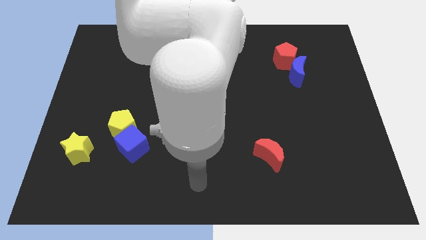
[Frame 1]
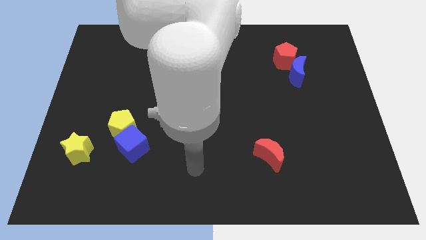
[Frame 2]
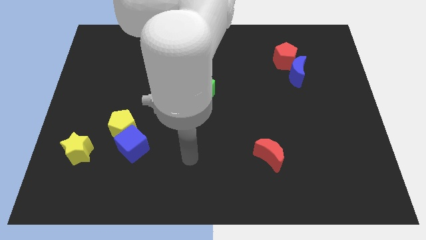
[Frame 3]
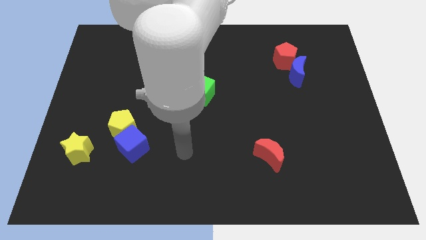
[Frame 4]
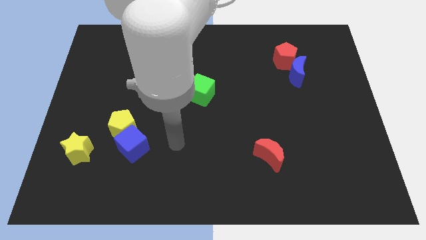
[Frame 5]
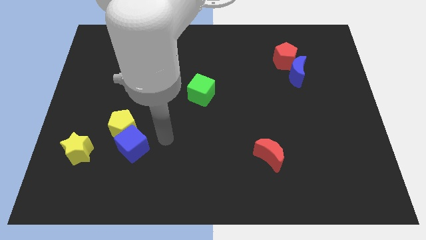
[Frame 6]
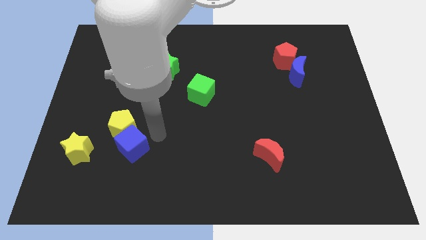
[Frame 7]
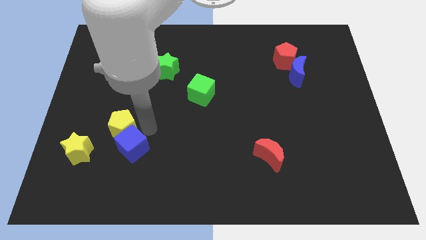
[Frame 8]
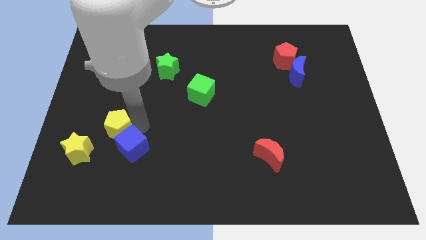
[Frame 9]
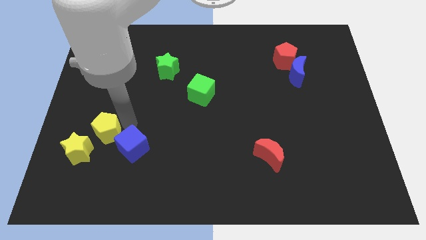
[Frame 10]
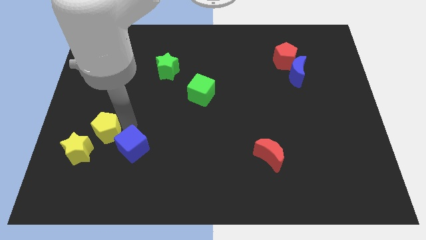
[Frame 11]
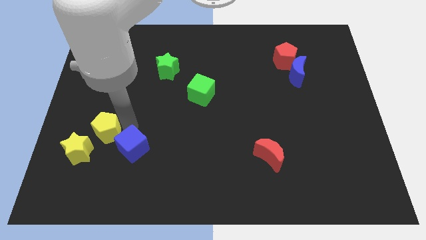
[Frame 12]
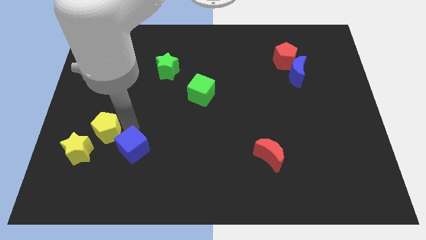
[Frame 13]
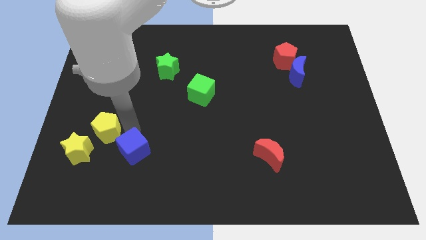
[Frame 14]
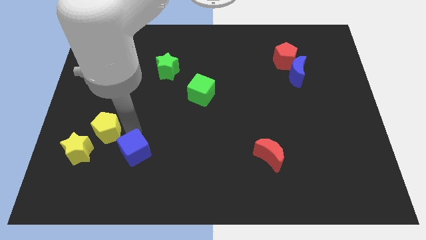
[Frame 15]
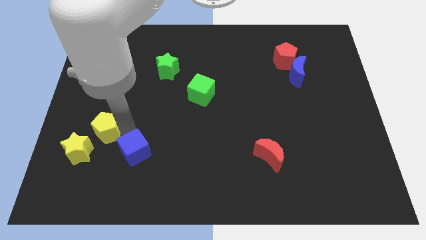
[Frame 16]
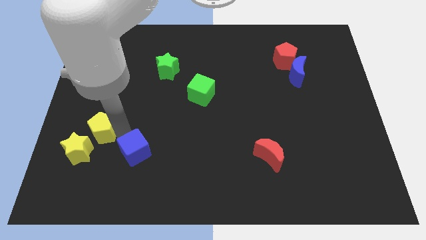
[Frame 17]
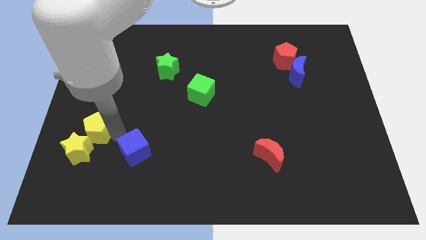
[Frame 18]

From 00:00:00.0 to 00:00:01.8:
pull the blue cube apart from the yellow pentagon

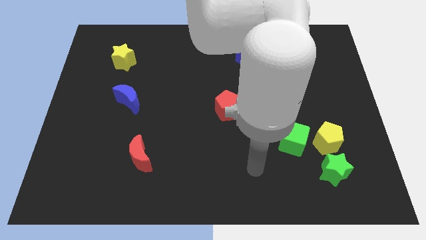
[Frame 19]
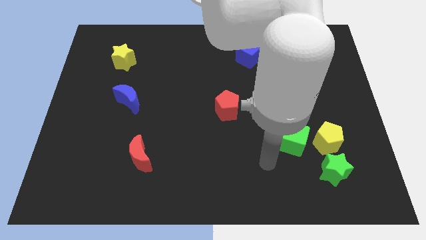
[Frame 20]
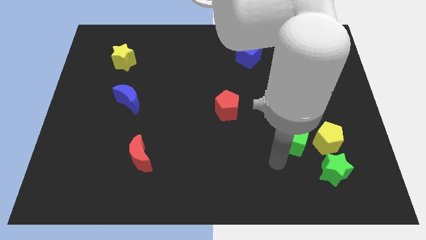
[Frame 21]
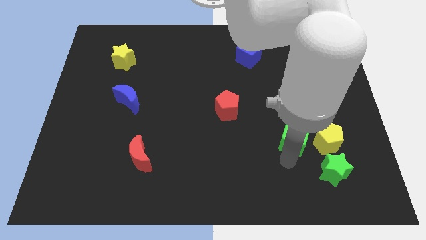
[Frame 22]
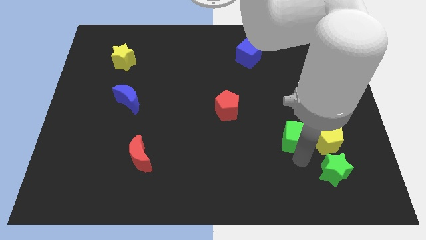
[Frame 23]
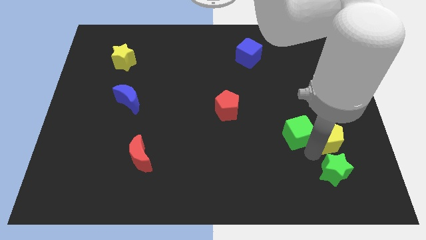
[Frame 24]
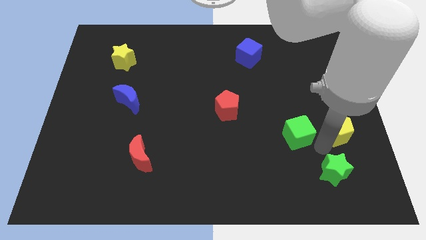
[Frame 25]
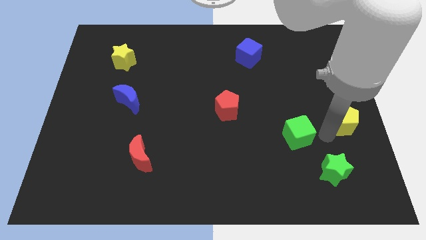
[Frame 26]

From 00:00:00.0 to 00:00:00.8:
pull the green cube apart from the yellow pentagon

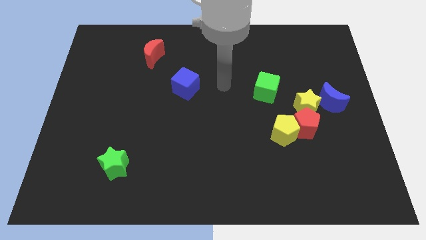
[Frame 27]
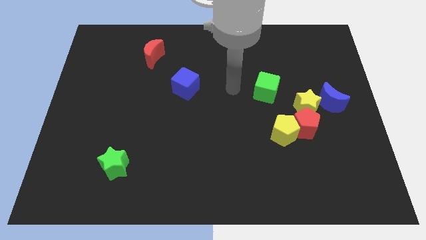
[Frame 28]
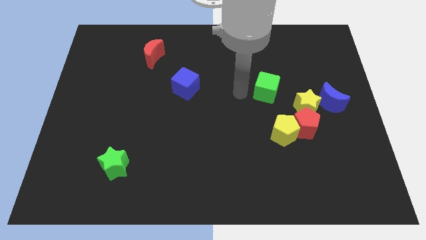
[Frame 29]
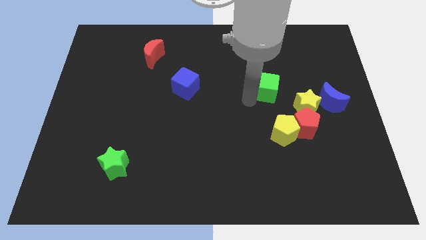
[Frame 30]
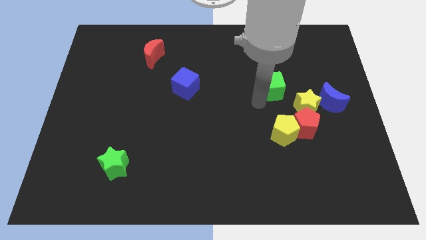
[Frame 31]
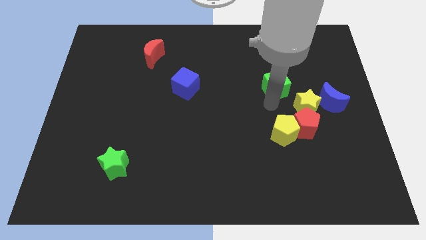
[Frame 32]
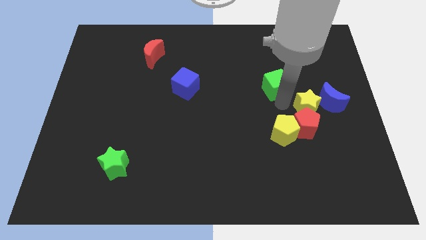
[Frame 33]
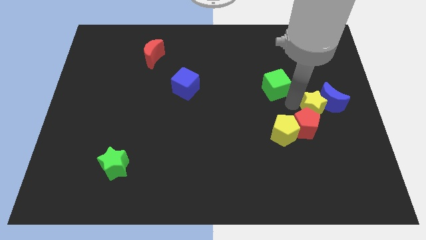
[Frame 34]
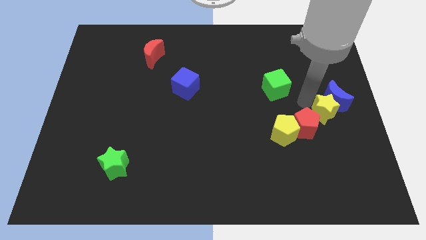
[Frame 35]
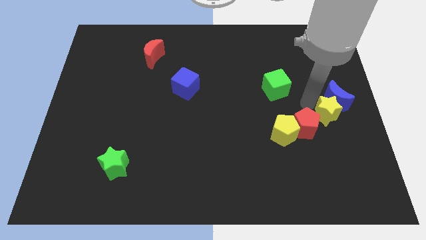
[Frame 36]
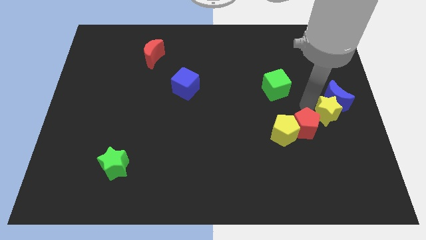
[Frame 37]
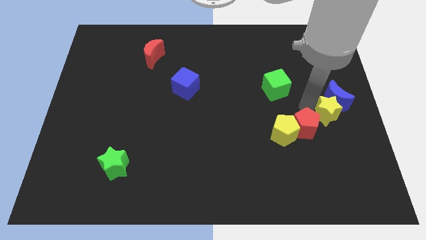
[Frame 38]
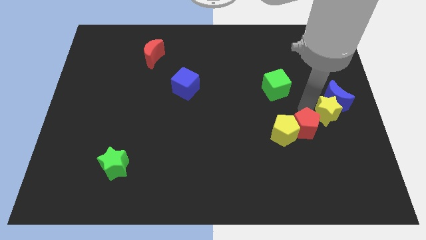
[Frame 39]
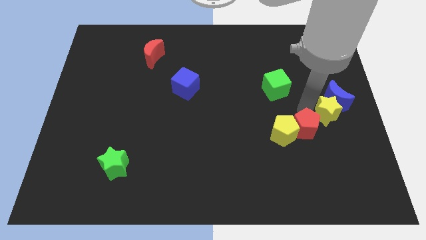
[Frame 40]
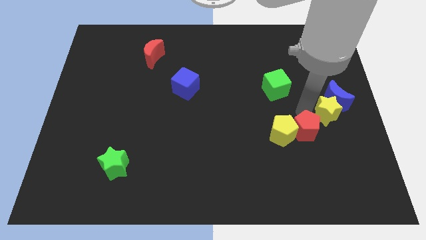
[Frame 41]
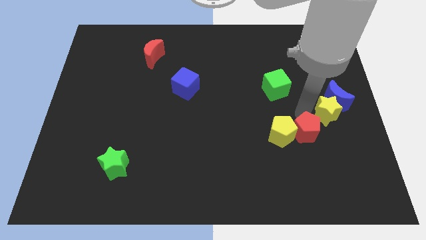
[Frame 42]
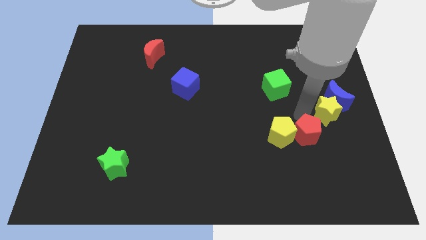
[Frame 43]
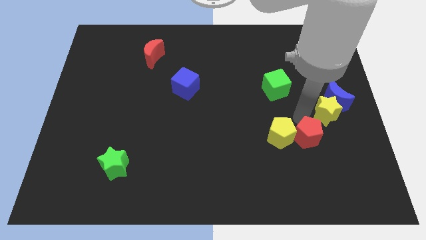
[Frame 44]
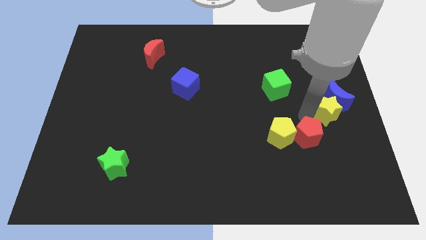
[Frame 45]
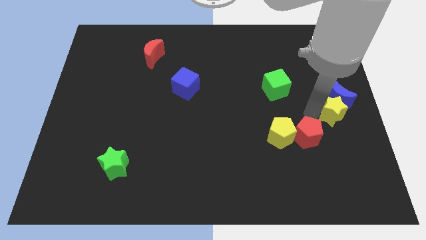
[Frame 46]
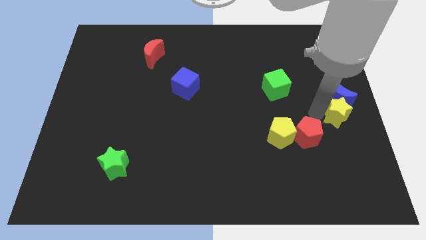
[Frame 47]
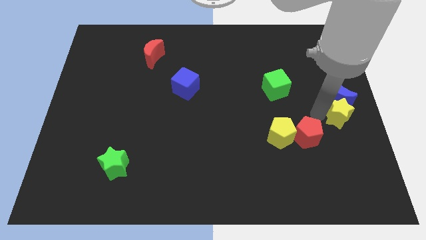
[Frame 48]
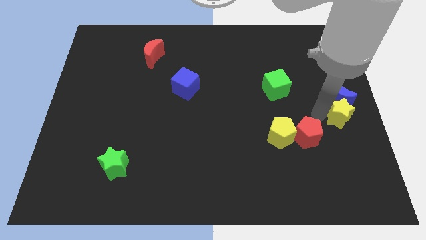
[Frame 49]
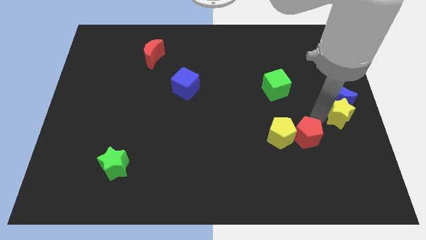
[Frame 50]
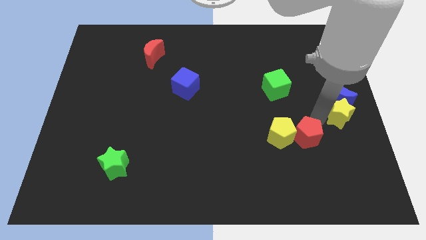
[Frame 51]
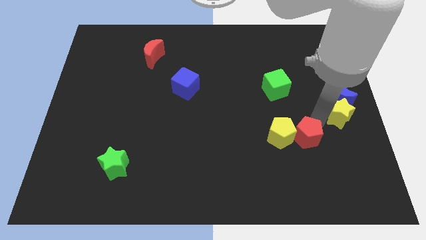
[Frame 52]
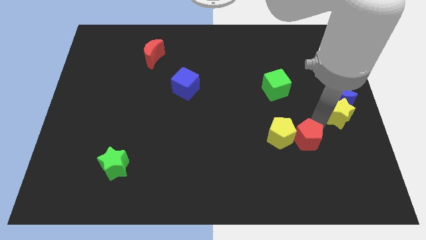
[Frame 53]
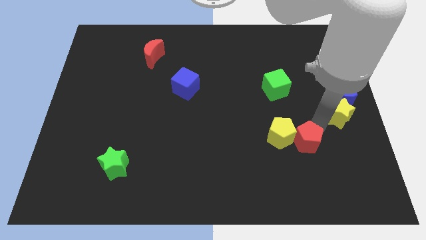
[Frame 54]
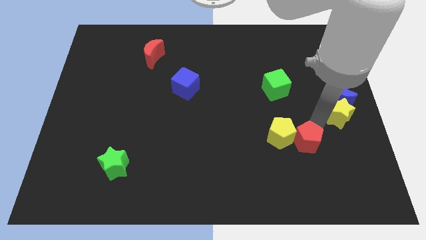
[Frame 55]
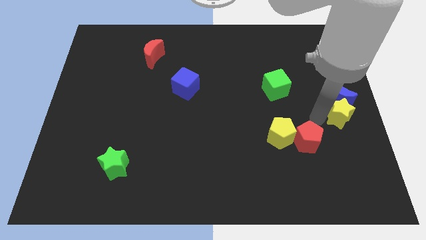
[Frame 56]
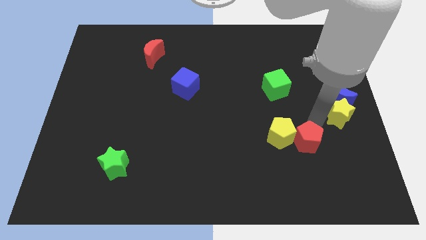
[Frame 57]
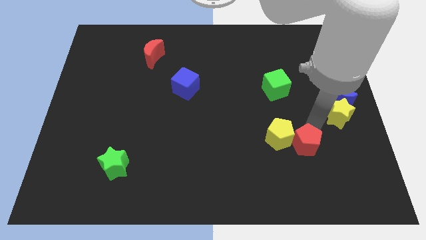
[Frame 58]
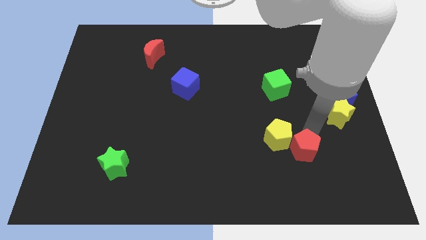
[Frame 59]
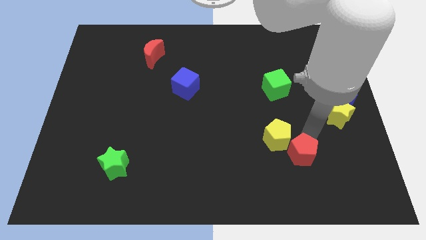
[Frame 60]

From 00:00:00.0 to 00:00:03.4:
move the red pentagon away from the group of blocks

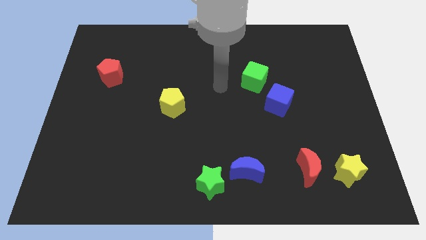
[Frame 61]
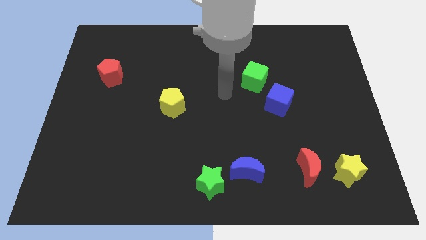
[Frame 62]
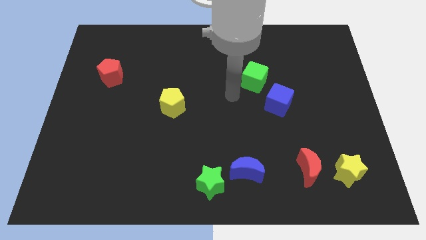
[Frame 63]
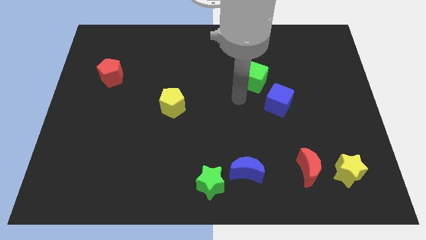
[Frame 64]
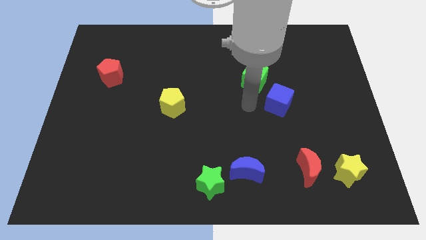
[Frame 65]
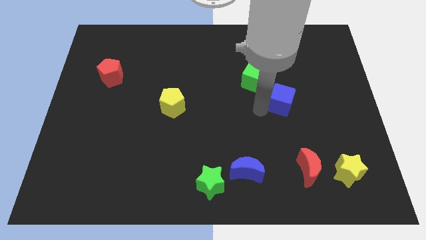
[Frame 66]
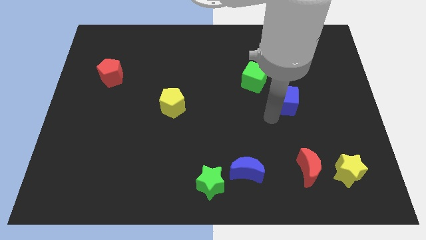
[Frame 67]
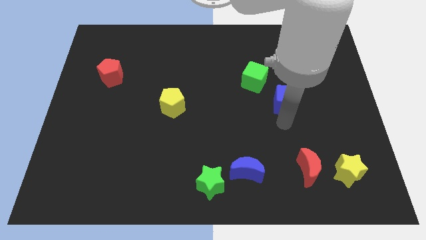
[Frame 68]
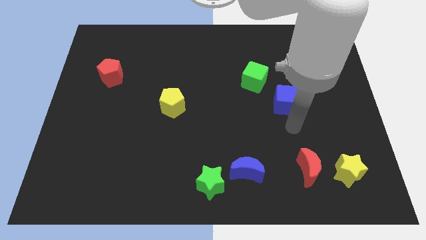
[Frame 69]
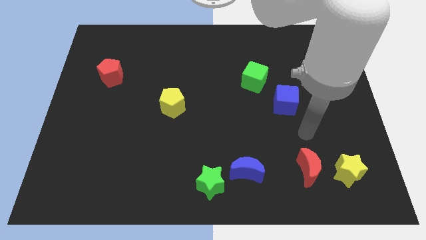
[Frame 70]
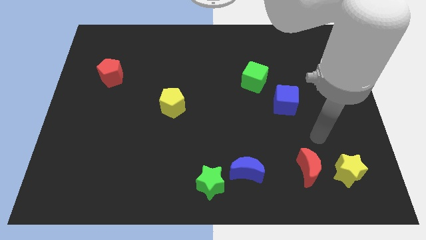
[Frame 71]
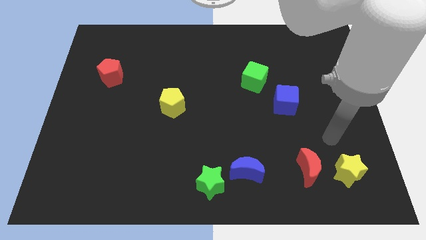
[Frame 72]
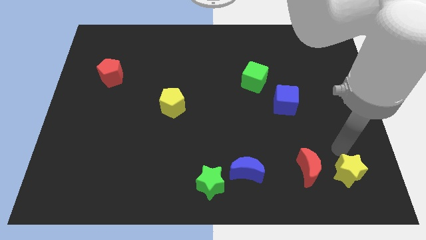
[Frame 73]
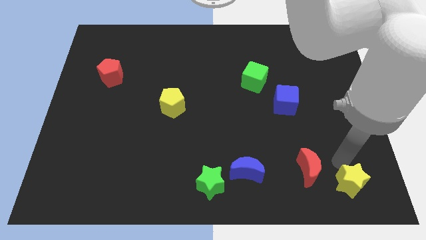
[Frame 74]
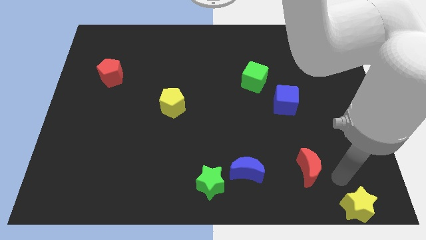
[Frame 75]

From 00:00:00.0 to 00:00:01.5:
move the red moon away from the yellow star

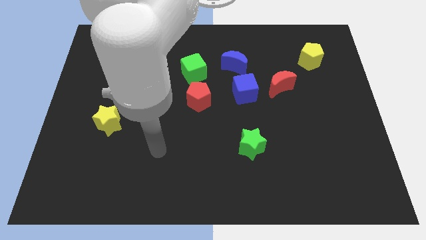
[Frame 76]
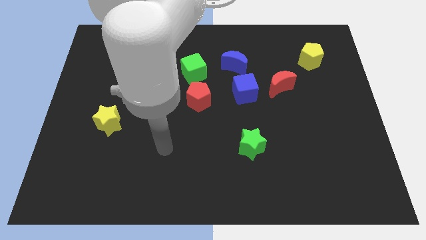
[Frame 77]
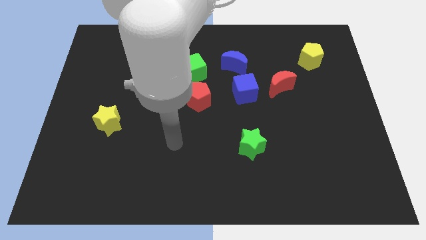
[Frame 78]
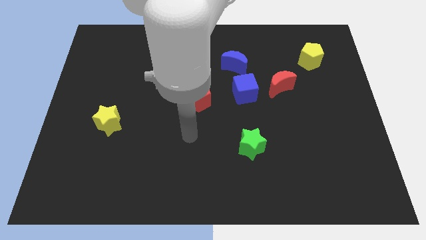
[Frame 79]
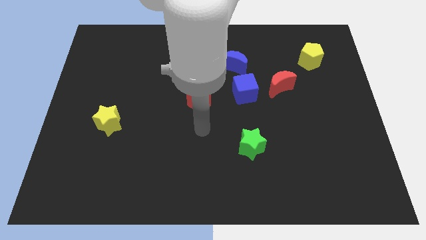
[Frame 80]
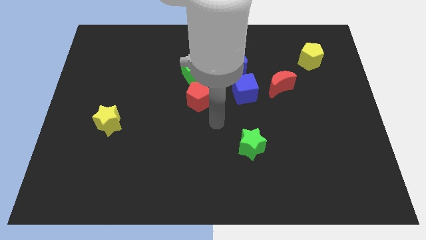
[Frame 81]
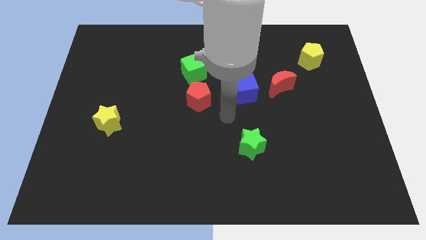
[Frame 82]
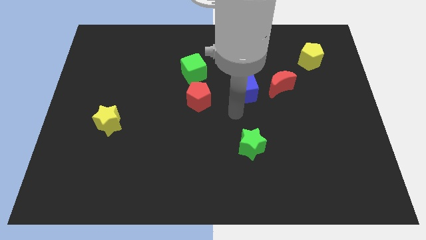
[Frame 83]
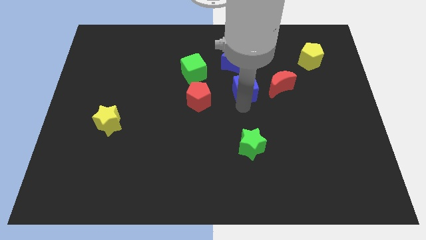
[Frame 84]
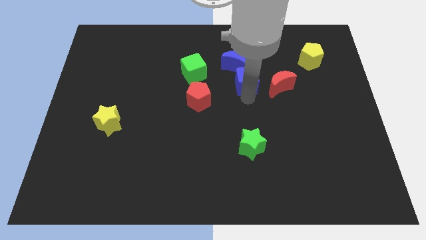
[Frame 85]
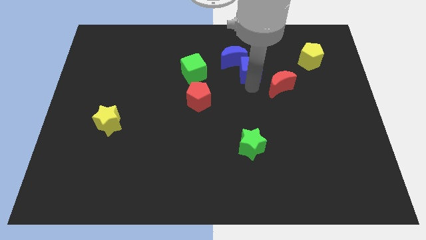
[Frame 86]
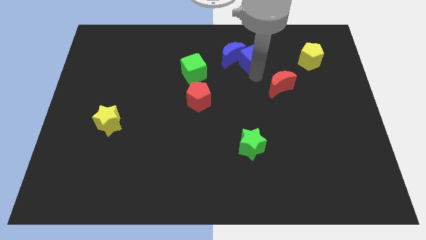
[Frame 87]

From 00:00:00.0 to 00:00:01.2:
move the red moon away from the blue cube

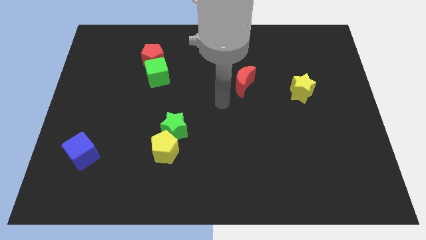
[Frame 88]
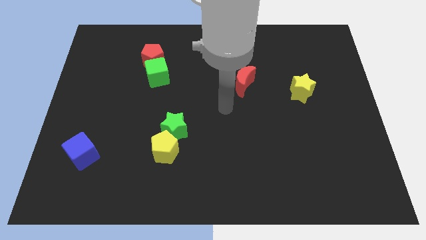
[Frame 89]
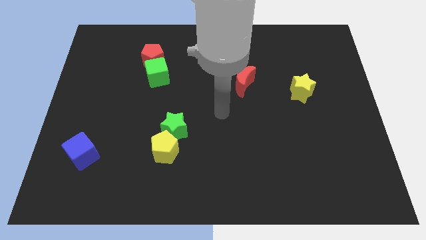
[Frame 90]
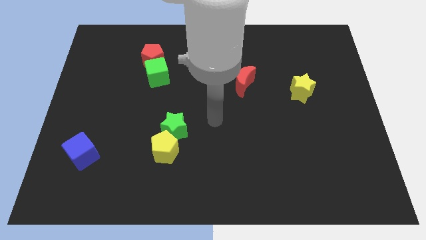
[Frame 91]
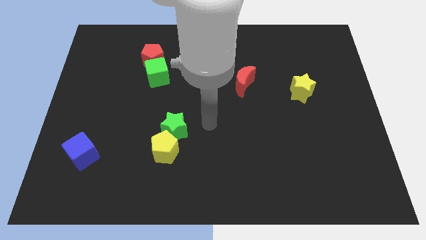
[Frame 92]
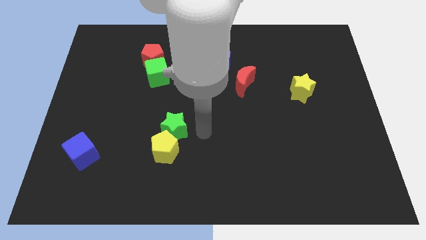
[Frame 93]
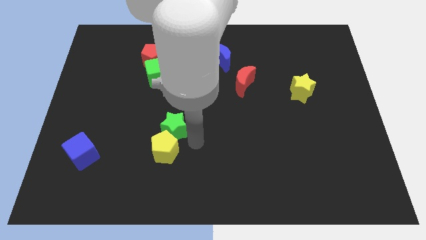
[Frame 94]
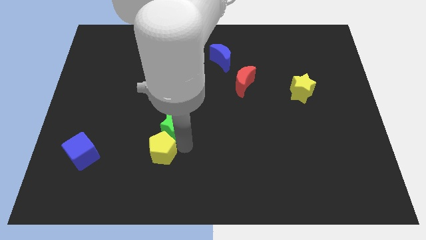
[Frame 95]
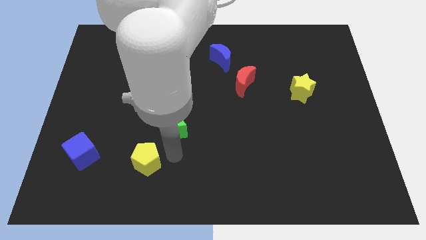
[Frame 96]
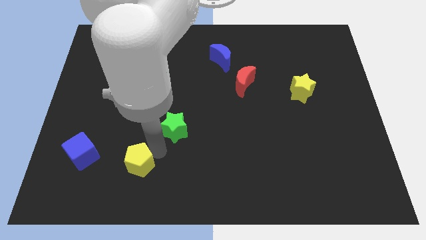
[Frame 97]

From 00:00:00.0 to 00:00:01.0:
move the green star away from the yellow pentagon
